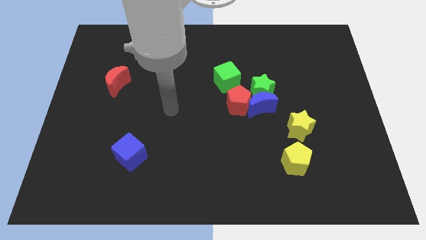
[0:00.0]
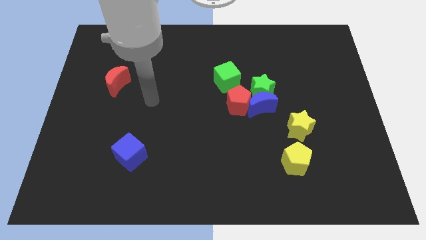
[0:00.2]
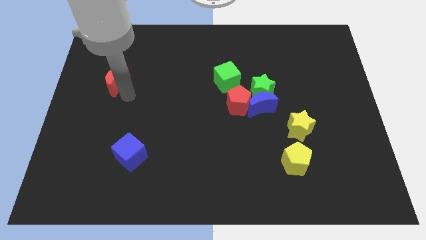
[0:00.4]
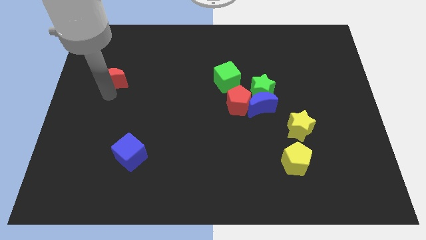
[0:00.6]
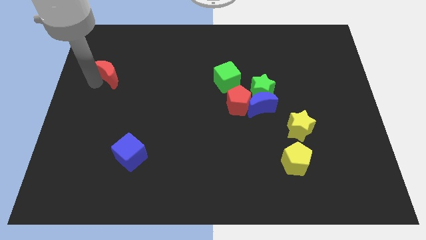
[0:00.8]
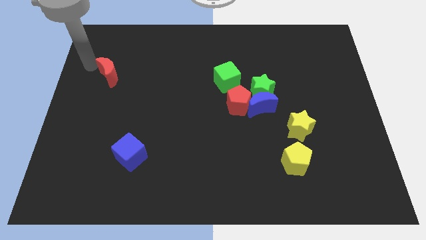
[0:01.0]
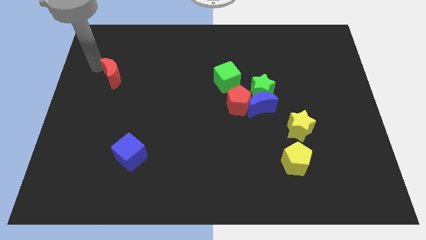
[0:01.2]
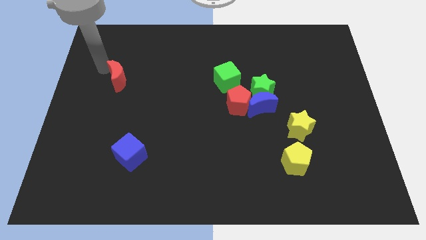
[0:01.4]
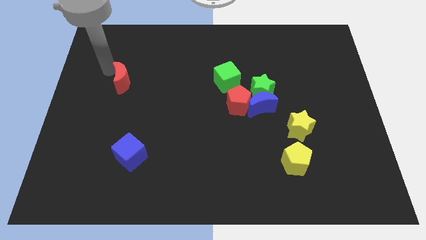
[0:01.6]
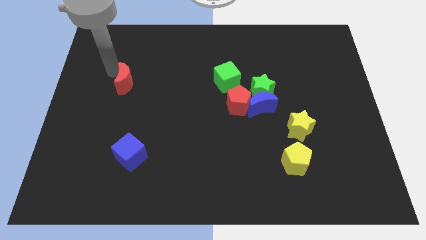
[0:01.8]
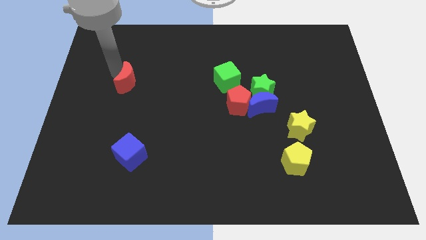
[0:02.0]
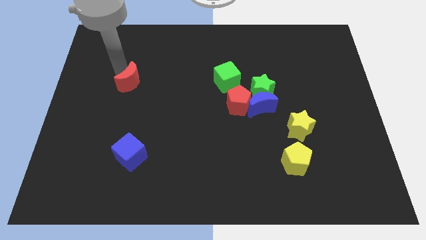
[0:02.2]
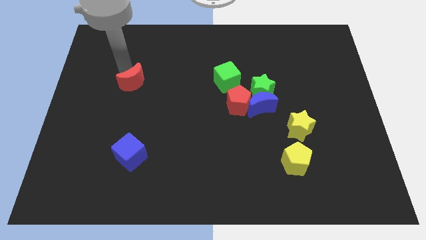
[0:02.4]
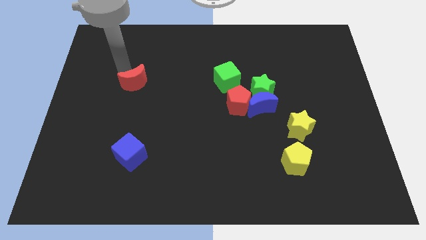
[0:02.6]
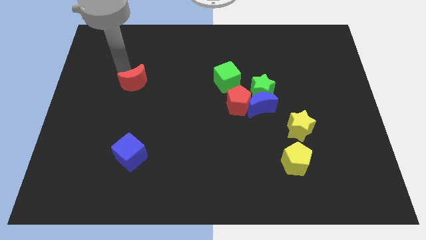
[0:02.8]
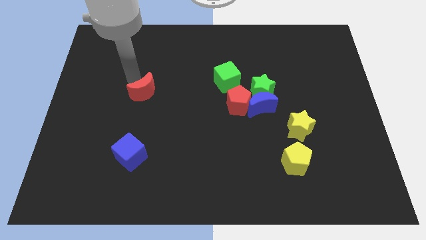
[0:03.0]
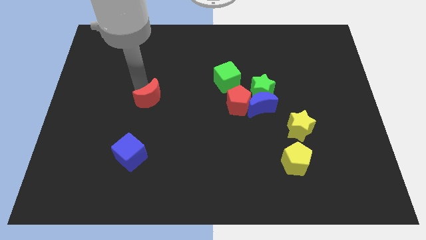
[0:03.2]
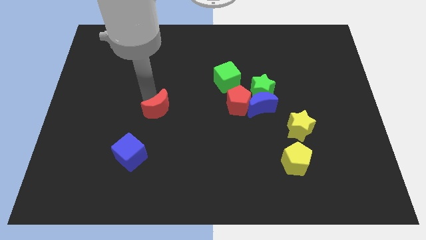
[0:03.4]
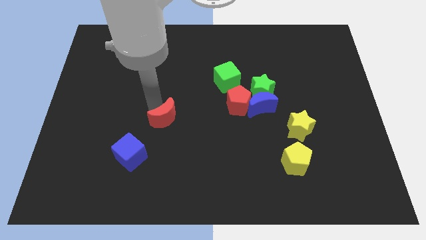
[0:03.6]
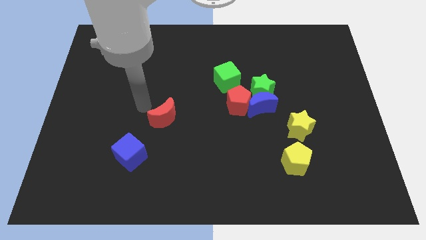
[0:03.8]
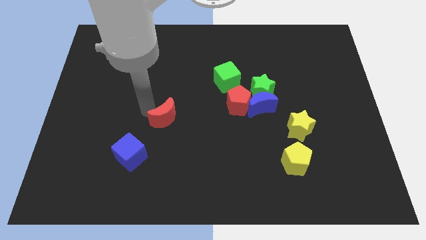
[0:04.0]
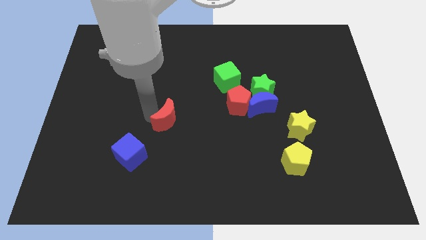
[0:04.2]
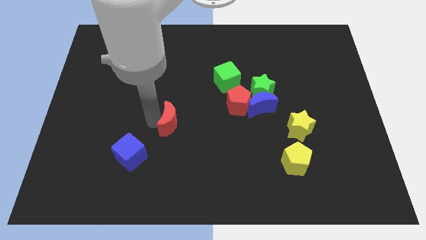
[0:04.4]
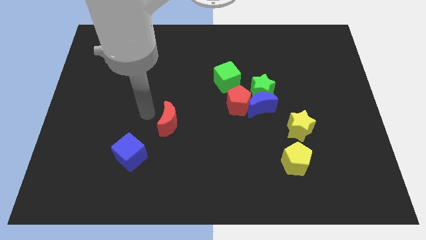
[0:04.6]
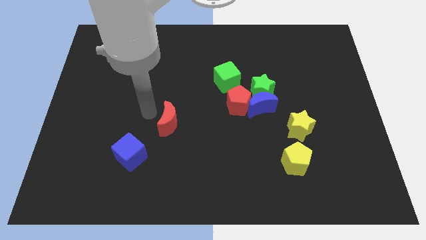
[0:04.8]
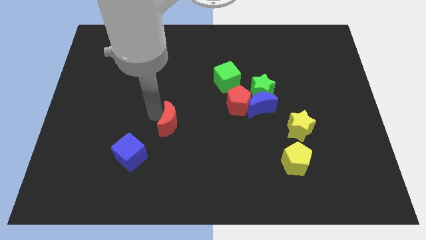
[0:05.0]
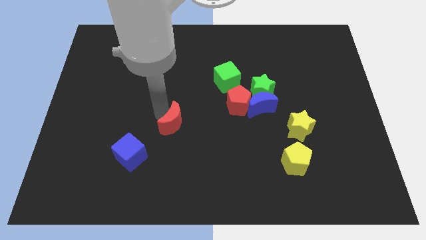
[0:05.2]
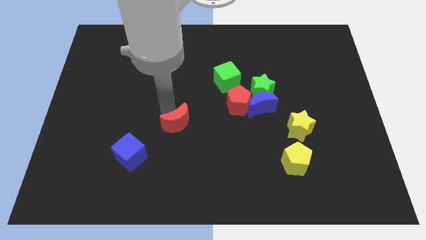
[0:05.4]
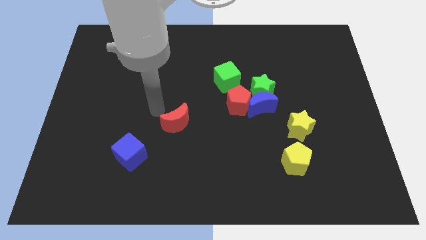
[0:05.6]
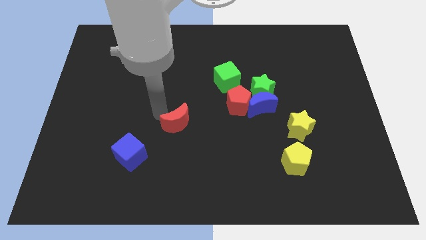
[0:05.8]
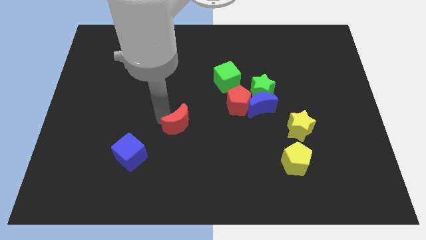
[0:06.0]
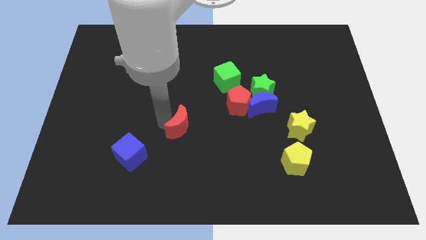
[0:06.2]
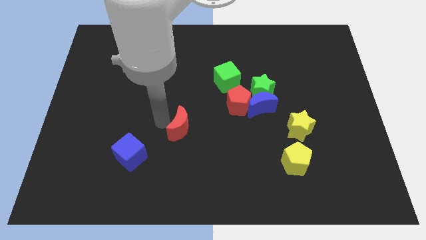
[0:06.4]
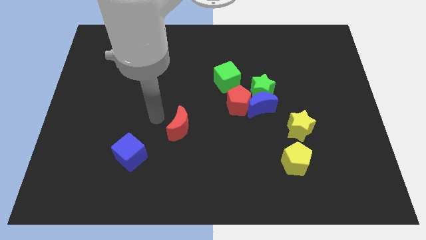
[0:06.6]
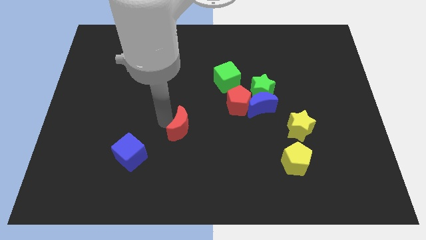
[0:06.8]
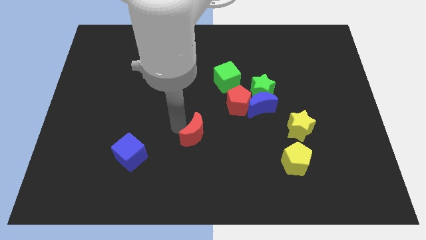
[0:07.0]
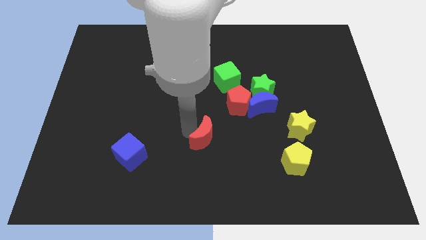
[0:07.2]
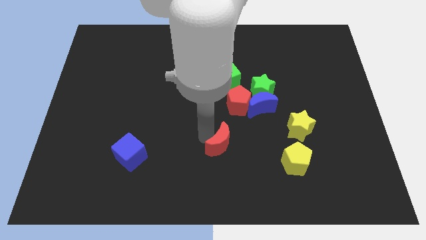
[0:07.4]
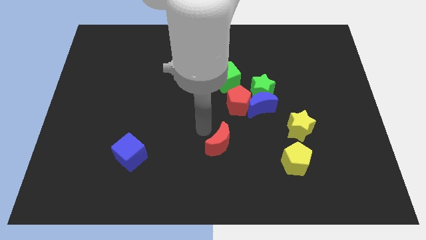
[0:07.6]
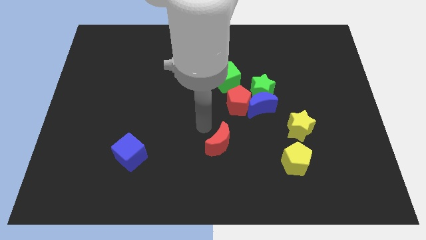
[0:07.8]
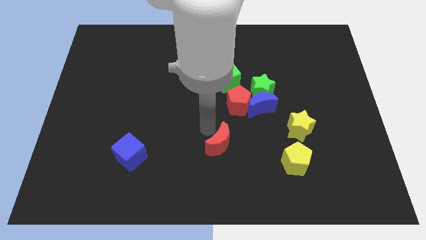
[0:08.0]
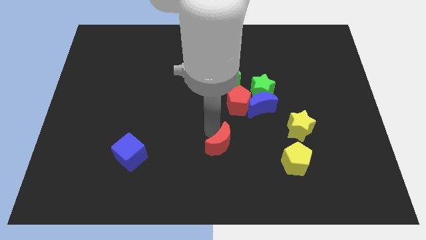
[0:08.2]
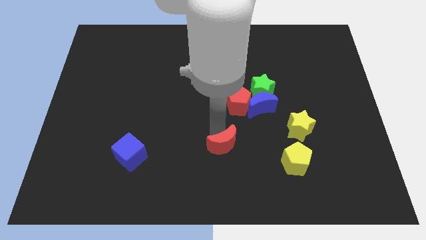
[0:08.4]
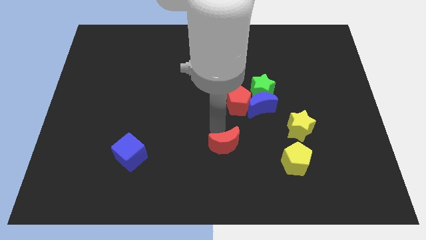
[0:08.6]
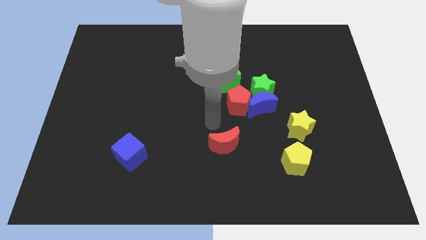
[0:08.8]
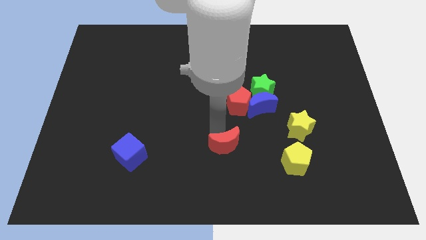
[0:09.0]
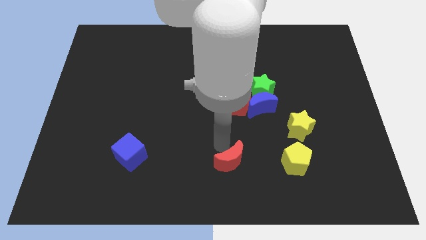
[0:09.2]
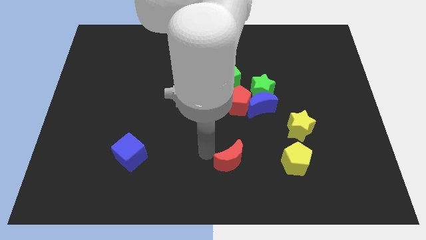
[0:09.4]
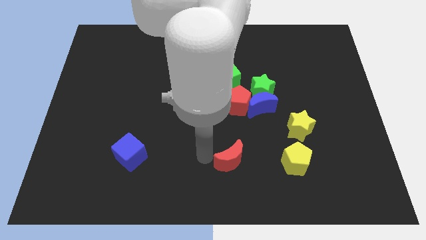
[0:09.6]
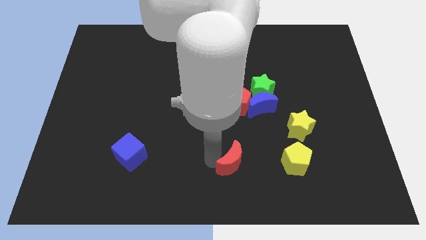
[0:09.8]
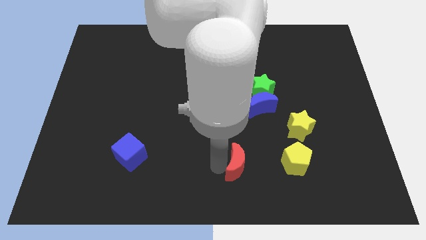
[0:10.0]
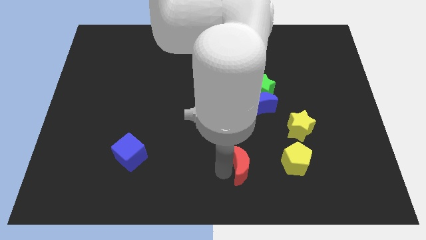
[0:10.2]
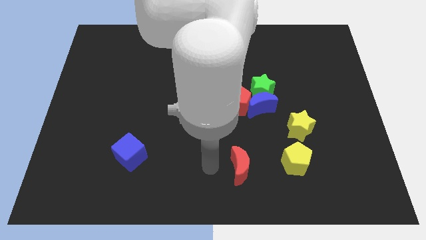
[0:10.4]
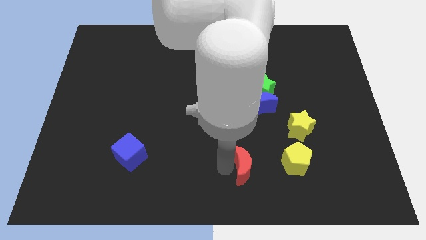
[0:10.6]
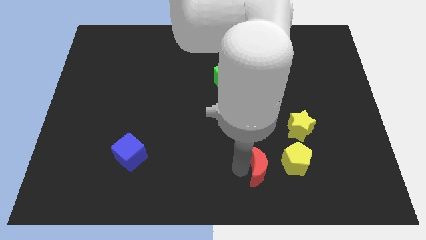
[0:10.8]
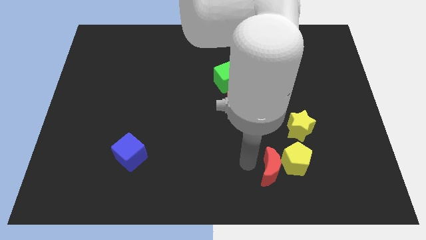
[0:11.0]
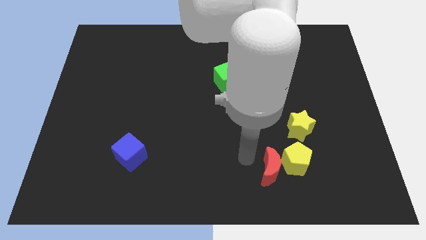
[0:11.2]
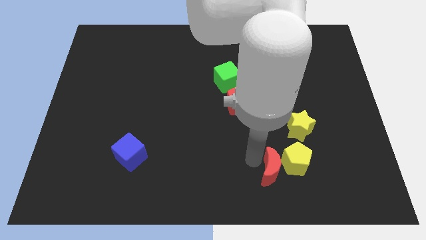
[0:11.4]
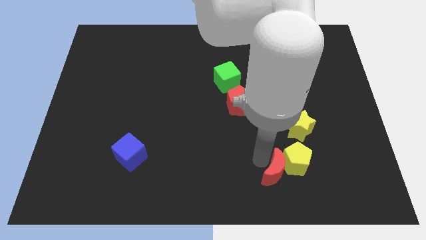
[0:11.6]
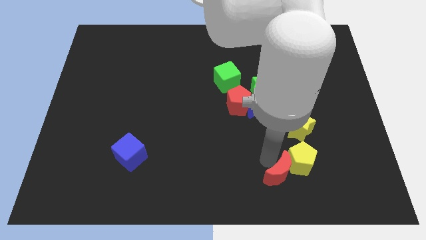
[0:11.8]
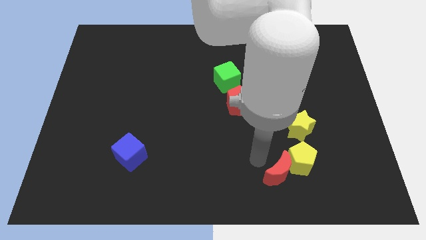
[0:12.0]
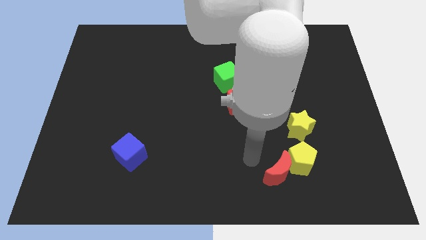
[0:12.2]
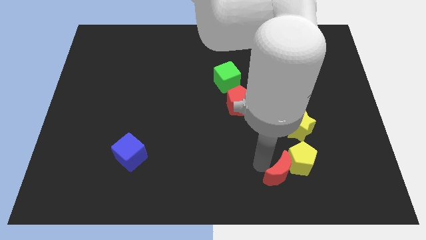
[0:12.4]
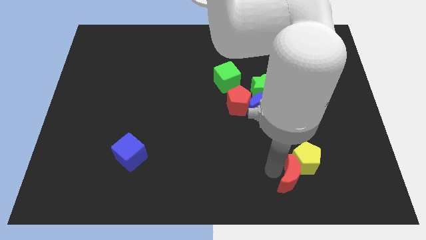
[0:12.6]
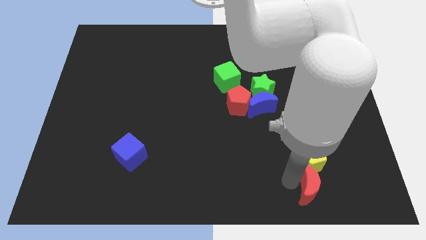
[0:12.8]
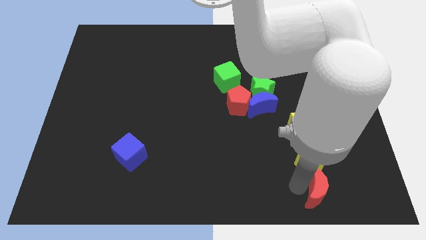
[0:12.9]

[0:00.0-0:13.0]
push the red moon to the bottom right of the yellow pentagon

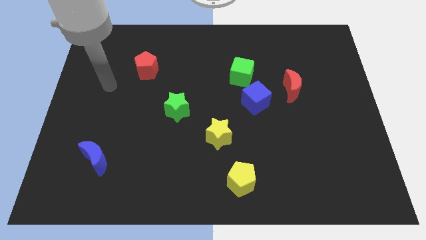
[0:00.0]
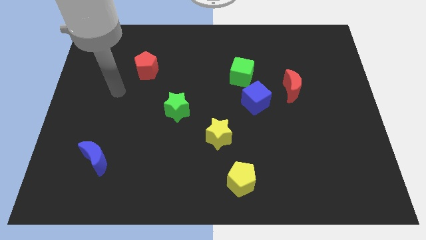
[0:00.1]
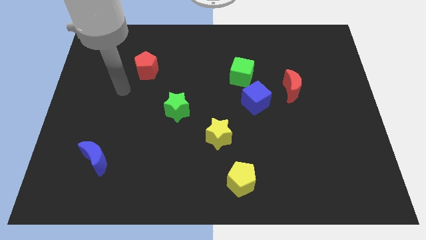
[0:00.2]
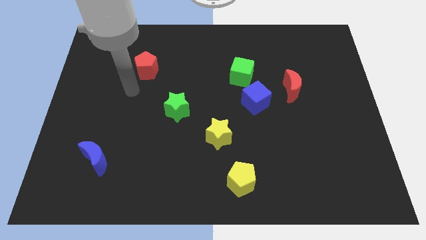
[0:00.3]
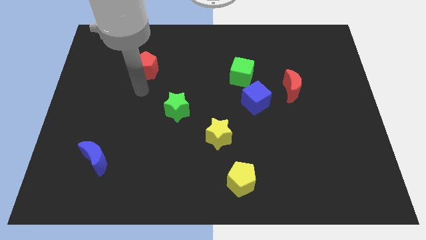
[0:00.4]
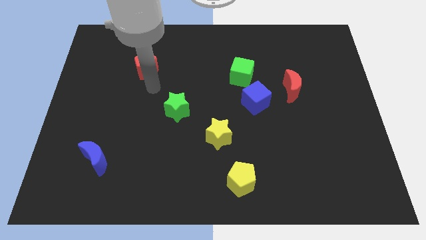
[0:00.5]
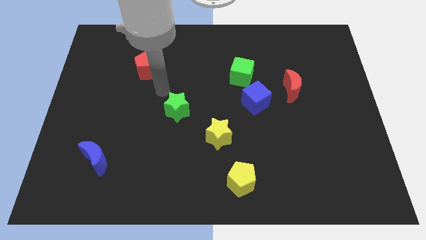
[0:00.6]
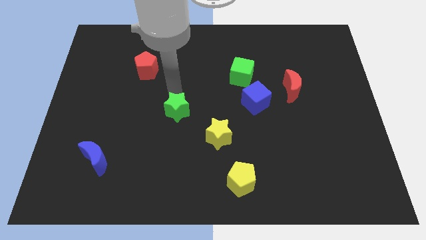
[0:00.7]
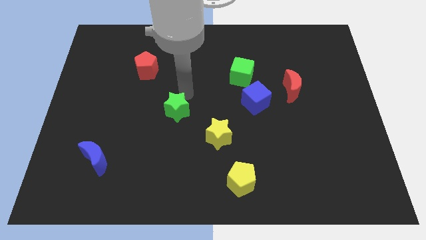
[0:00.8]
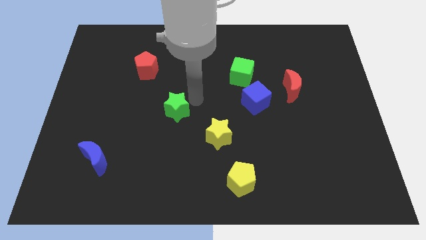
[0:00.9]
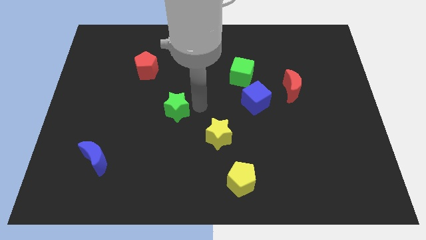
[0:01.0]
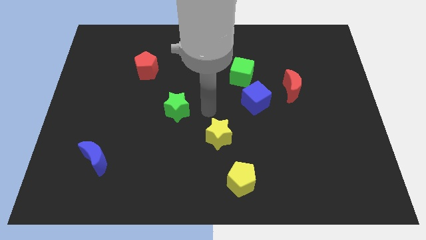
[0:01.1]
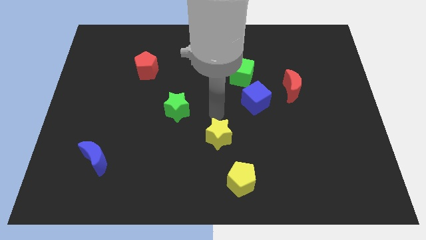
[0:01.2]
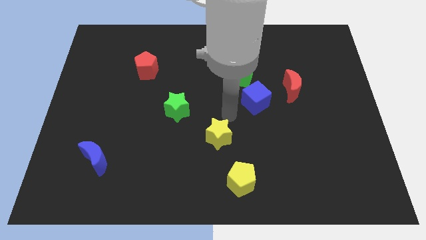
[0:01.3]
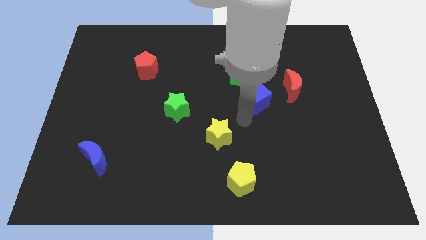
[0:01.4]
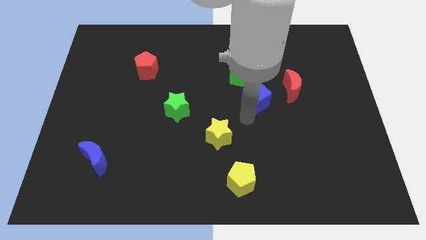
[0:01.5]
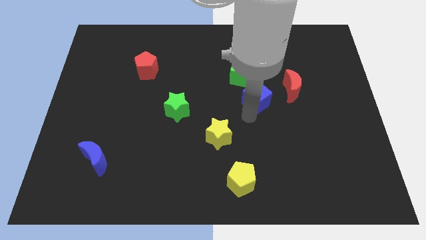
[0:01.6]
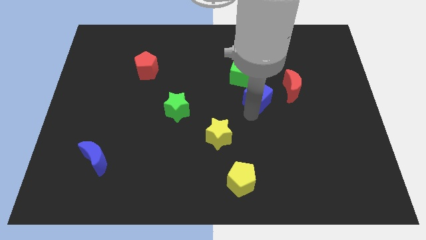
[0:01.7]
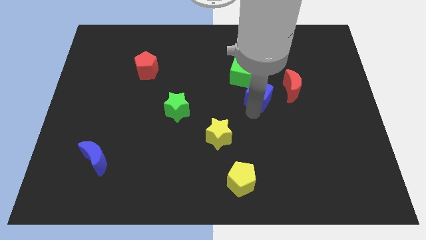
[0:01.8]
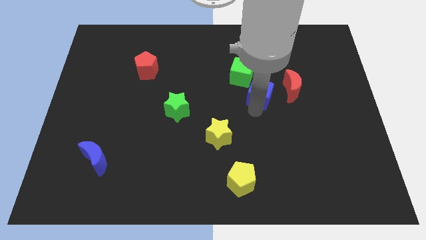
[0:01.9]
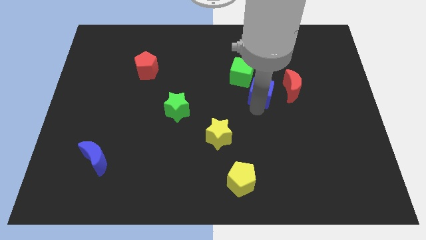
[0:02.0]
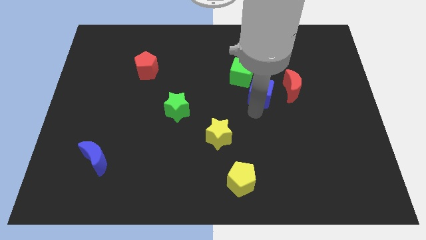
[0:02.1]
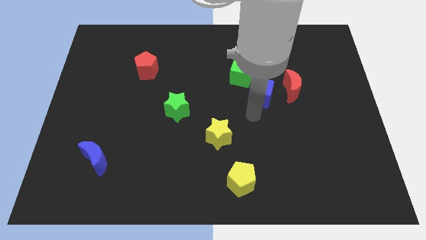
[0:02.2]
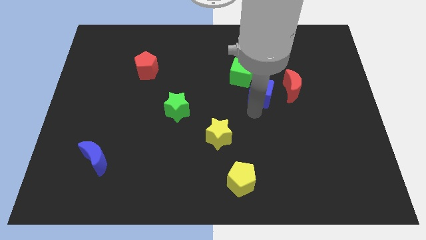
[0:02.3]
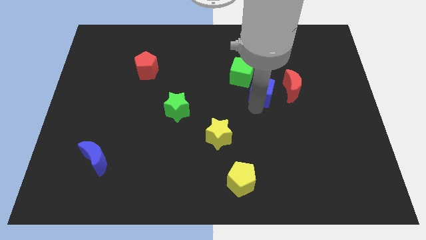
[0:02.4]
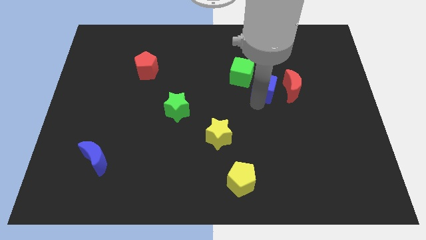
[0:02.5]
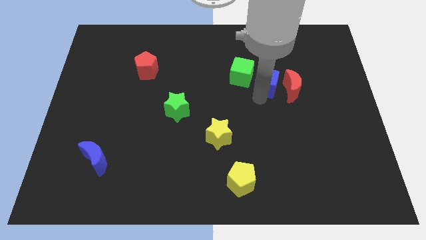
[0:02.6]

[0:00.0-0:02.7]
put the blue cube diagonally up and to the left of the red moon
